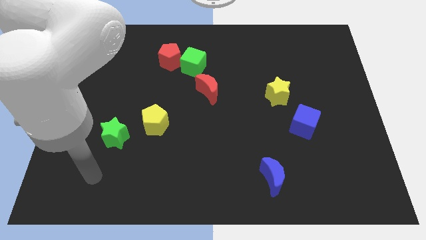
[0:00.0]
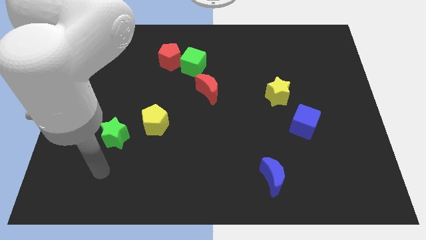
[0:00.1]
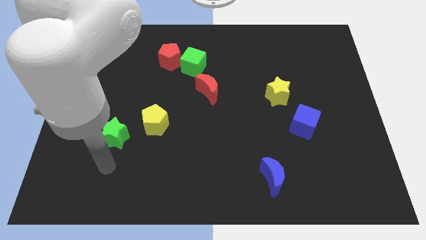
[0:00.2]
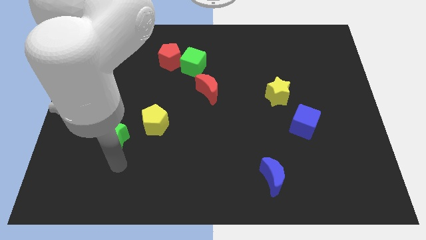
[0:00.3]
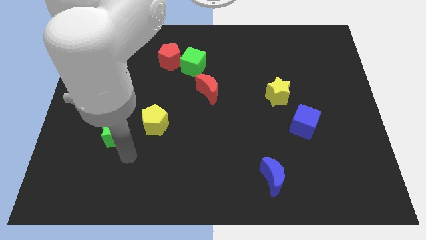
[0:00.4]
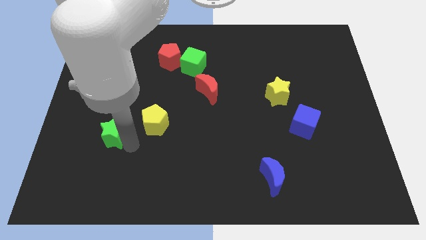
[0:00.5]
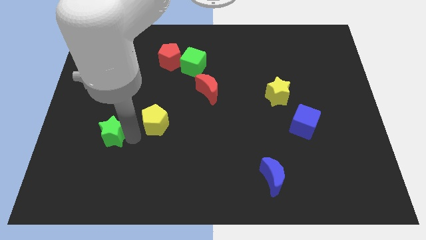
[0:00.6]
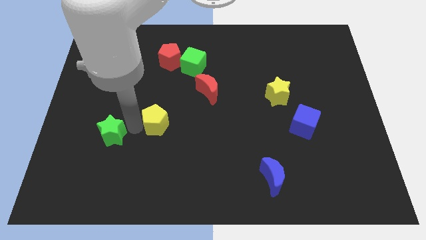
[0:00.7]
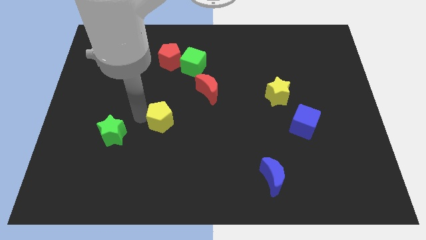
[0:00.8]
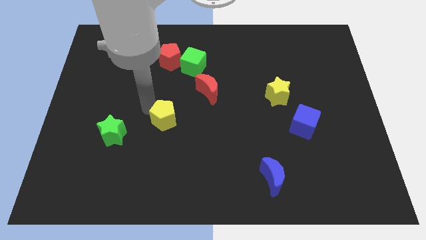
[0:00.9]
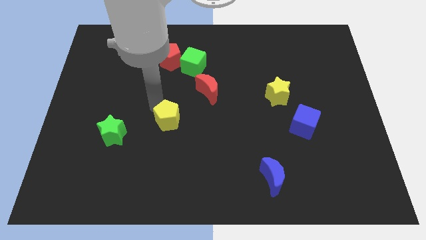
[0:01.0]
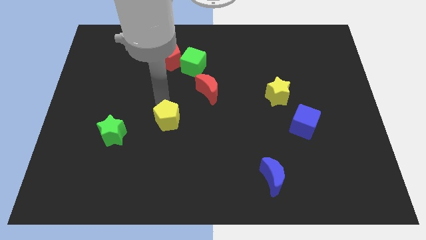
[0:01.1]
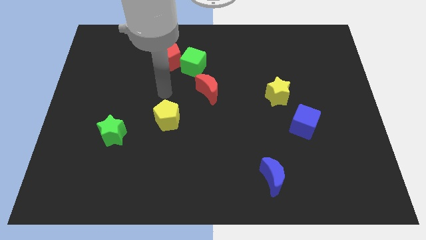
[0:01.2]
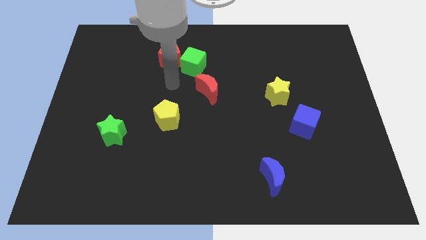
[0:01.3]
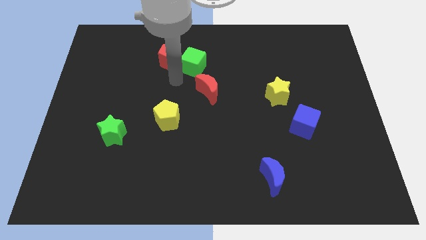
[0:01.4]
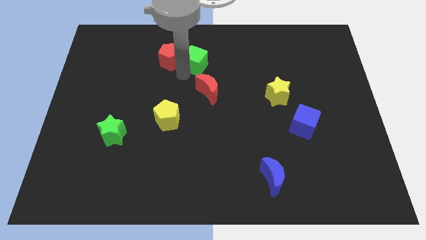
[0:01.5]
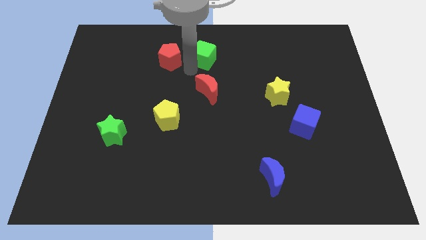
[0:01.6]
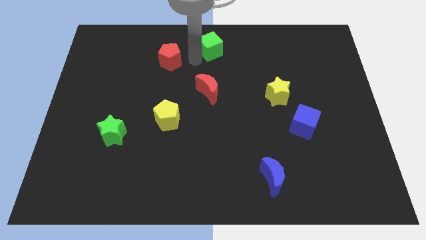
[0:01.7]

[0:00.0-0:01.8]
move the red pentagon away from the green cube

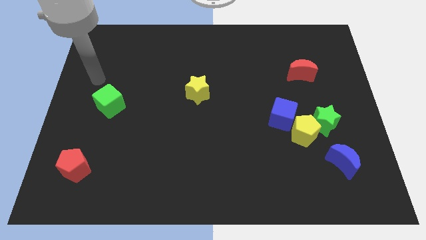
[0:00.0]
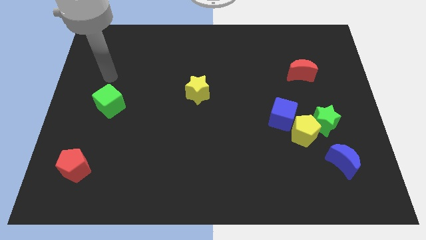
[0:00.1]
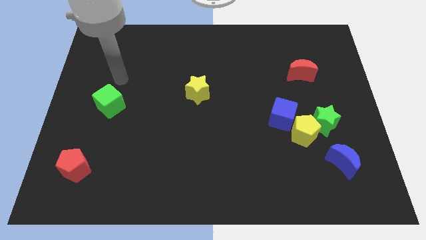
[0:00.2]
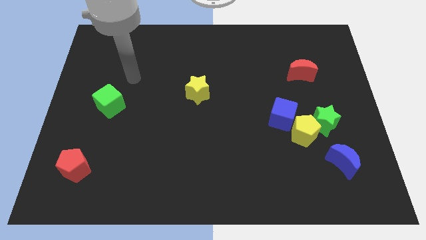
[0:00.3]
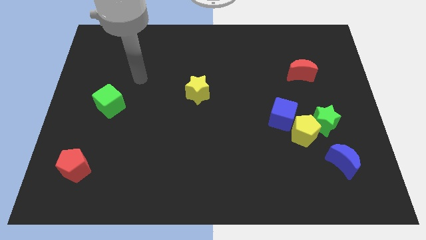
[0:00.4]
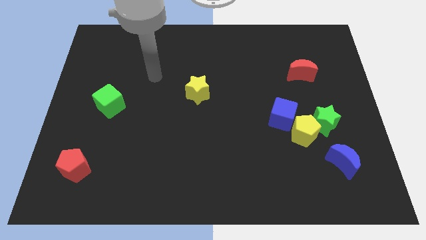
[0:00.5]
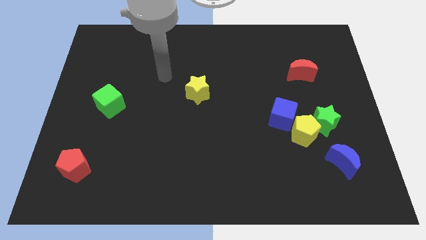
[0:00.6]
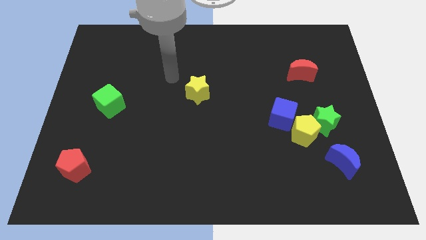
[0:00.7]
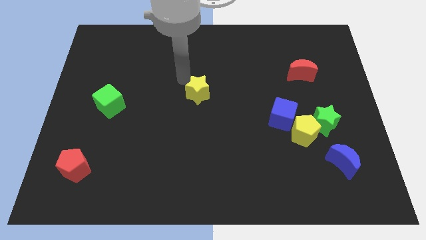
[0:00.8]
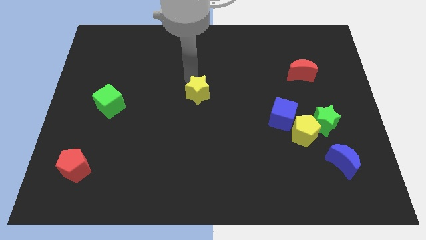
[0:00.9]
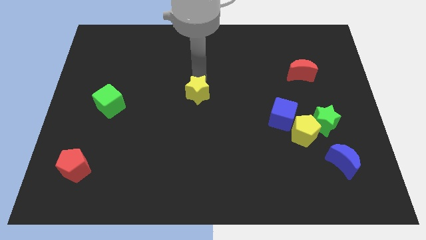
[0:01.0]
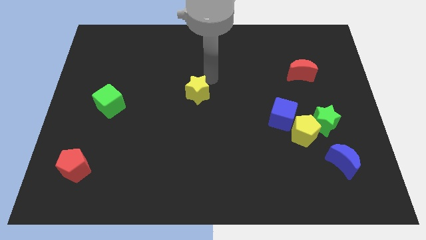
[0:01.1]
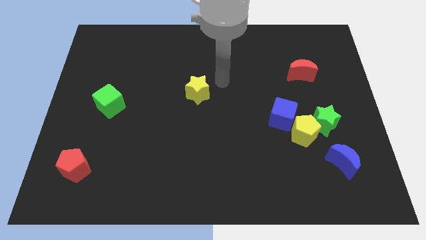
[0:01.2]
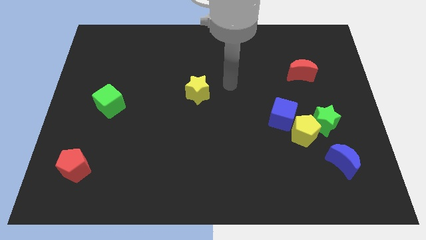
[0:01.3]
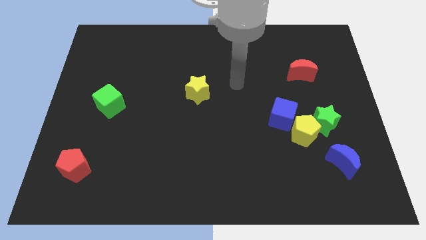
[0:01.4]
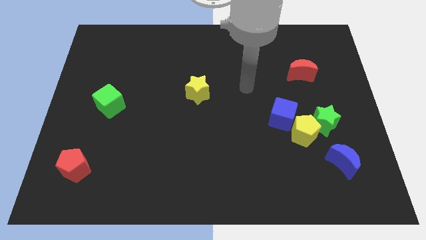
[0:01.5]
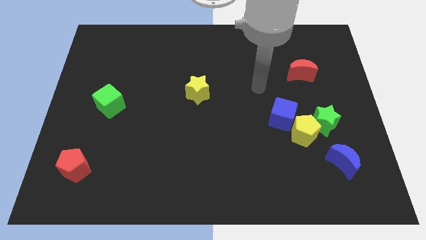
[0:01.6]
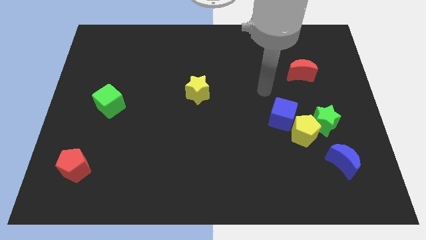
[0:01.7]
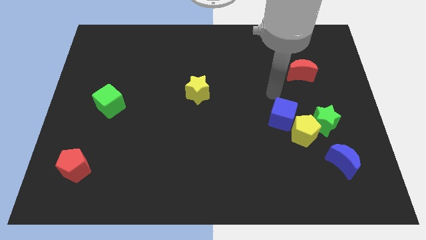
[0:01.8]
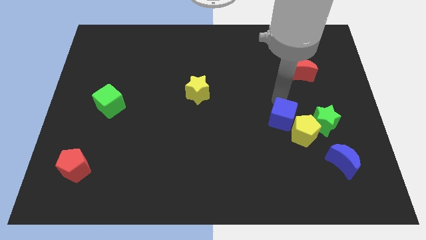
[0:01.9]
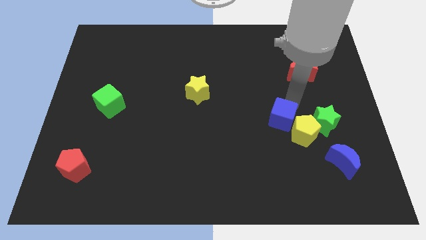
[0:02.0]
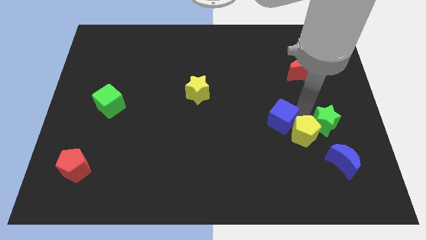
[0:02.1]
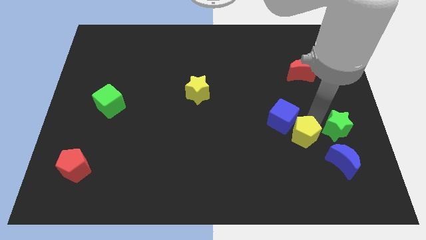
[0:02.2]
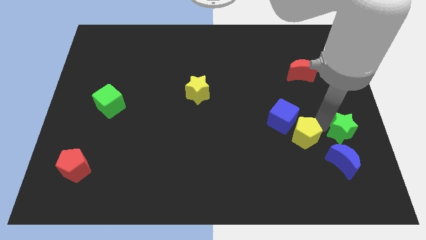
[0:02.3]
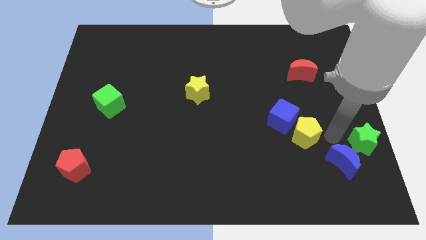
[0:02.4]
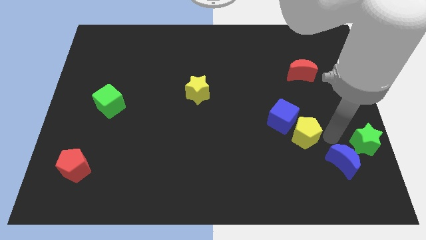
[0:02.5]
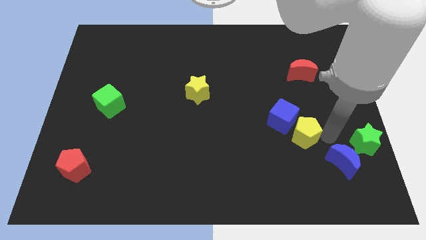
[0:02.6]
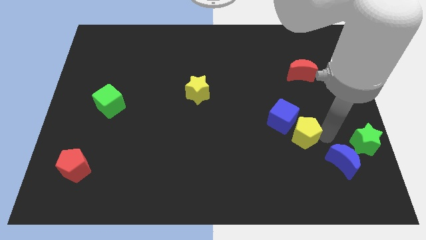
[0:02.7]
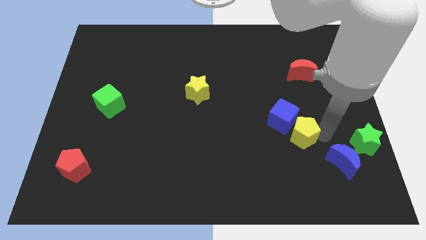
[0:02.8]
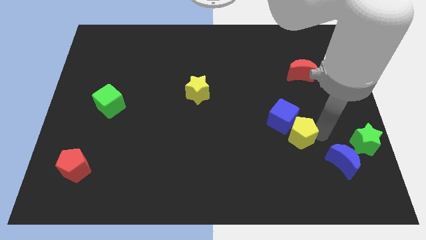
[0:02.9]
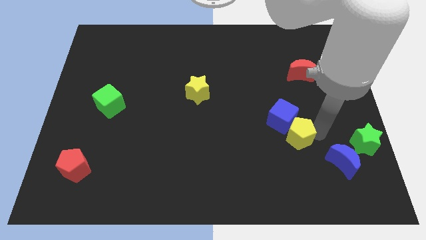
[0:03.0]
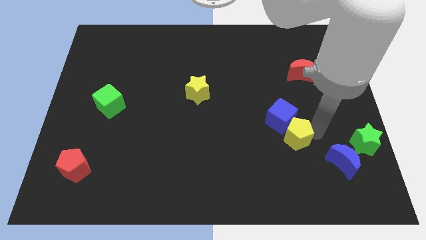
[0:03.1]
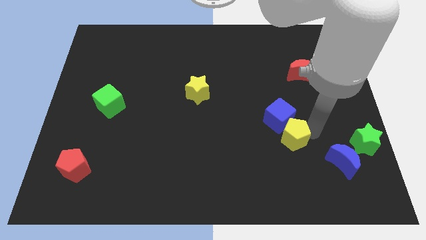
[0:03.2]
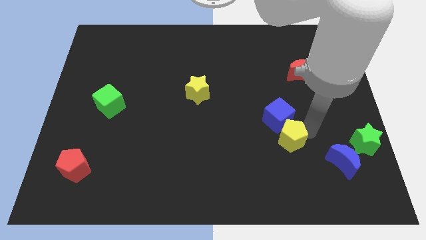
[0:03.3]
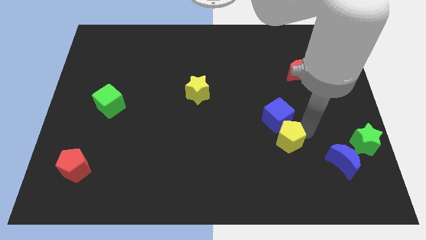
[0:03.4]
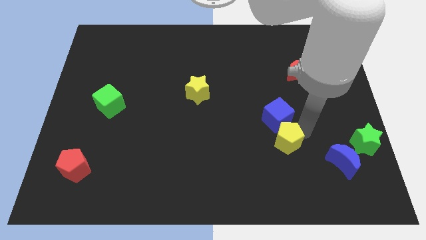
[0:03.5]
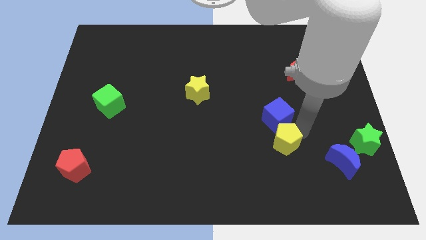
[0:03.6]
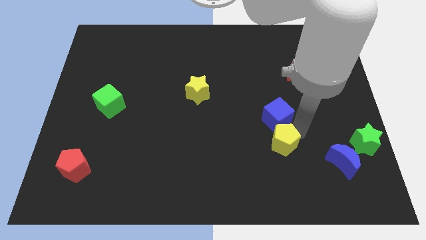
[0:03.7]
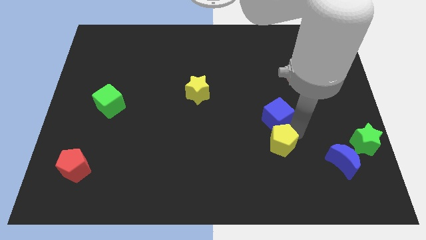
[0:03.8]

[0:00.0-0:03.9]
pull the yellow pentagon apart from the clump

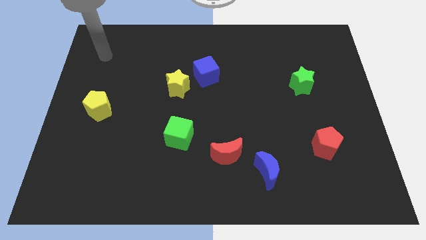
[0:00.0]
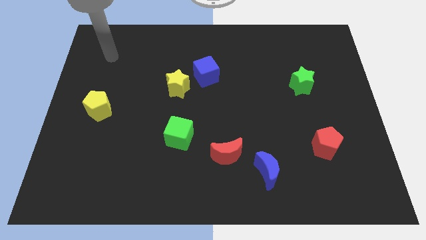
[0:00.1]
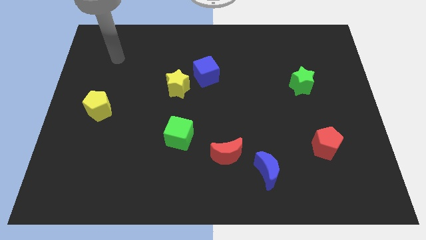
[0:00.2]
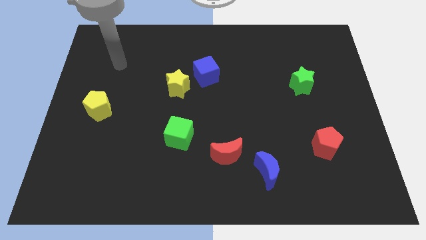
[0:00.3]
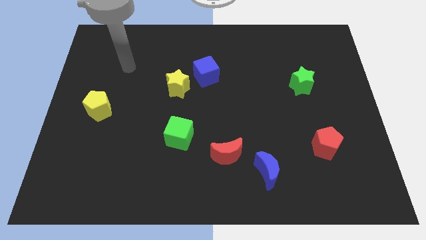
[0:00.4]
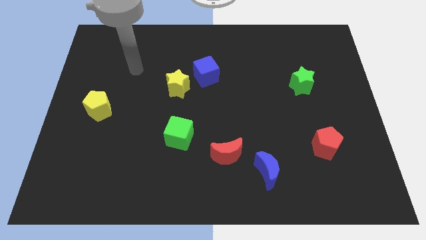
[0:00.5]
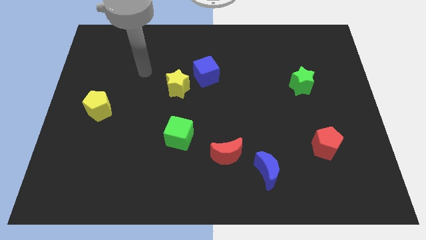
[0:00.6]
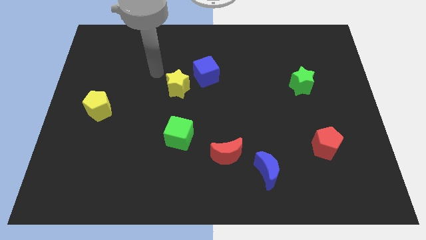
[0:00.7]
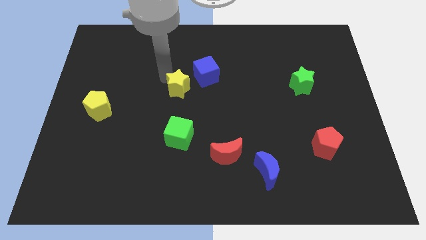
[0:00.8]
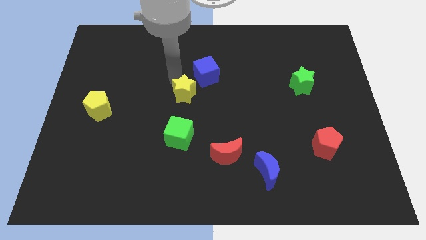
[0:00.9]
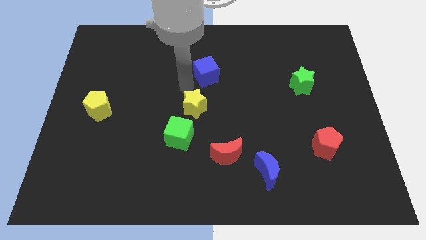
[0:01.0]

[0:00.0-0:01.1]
move the blue cube away from the yellow star

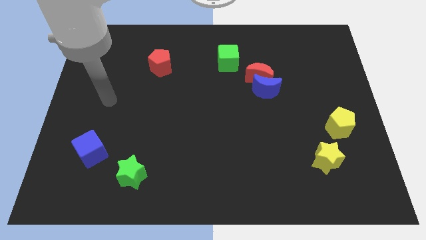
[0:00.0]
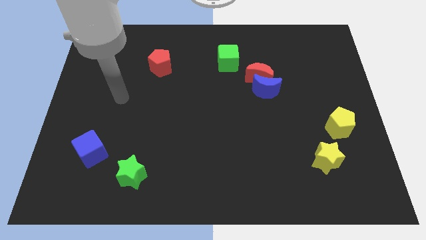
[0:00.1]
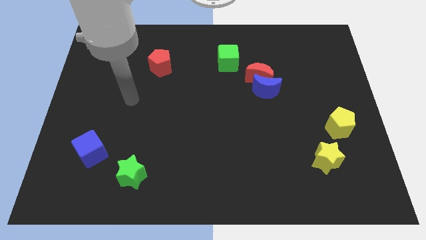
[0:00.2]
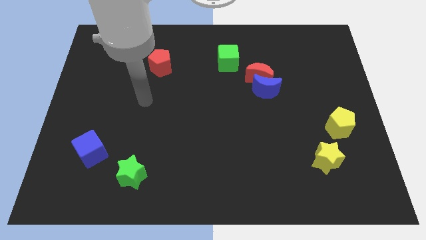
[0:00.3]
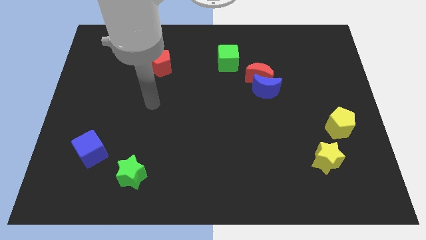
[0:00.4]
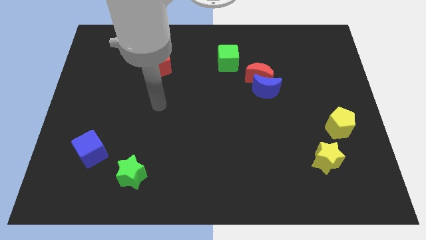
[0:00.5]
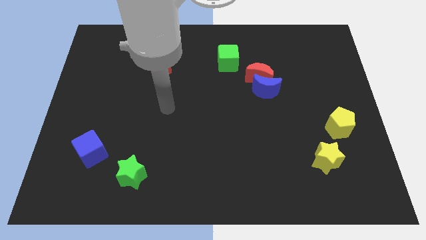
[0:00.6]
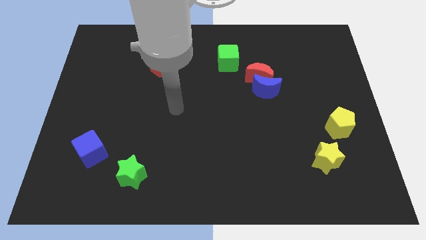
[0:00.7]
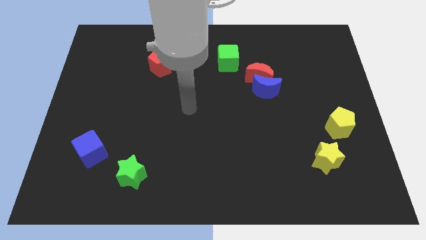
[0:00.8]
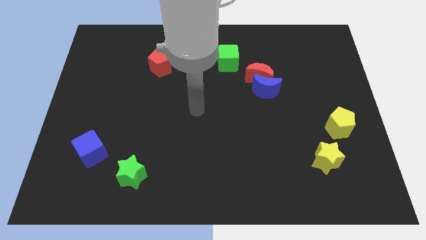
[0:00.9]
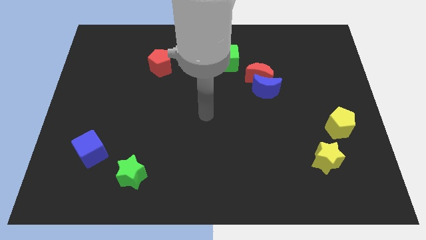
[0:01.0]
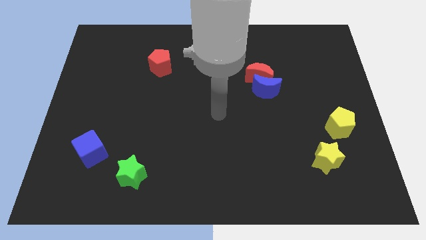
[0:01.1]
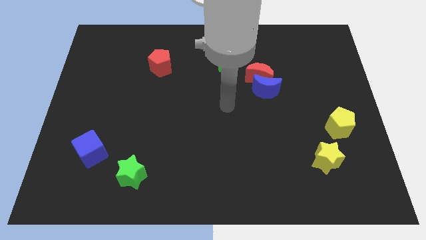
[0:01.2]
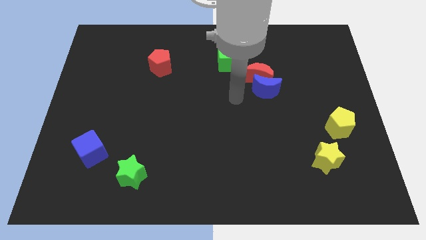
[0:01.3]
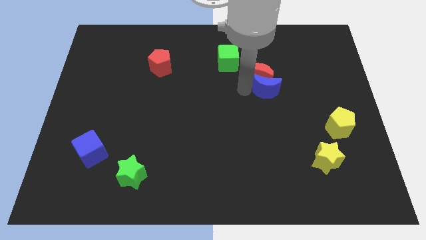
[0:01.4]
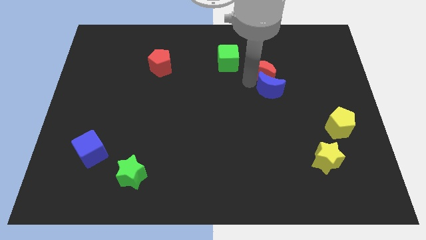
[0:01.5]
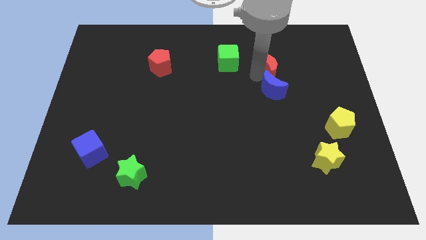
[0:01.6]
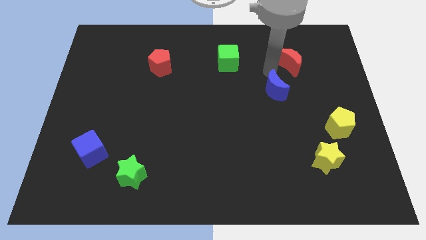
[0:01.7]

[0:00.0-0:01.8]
pull the blue moon apart from the red moon

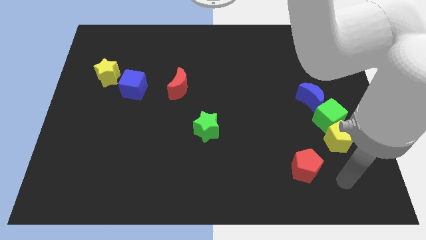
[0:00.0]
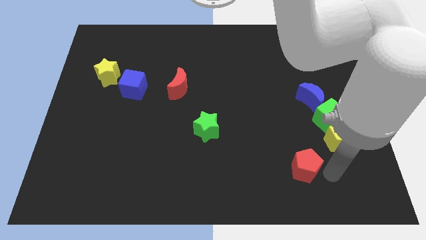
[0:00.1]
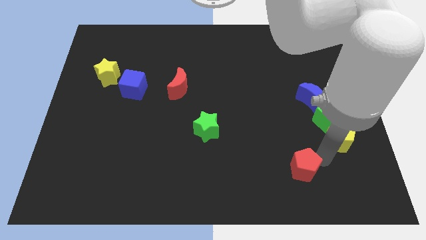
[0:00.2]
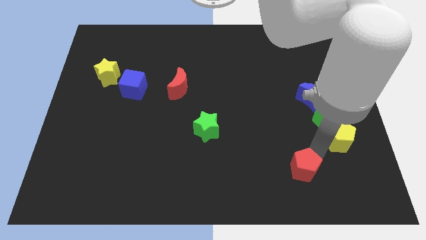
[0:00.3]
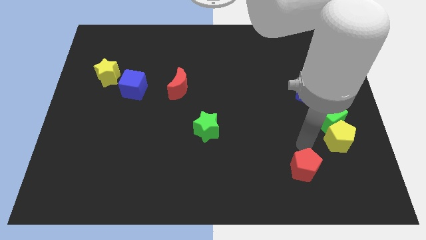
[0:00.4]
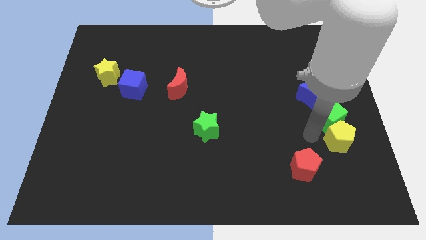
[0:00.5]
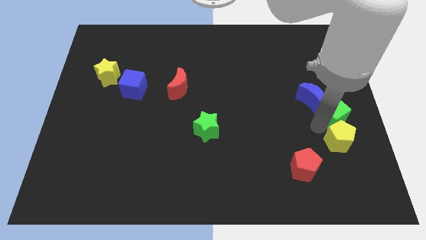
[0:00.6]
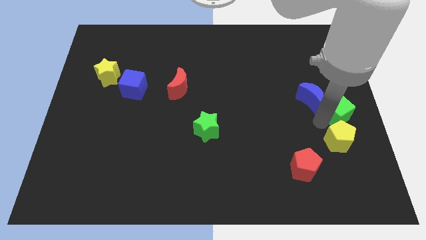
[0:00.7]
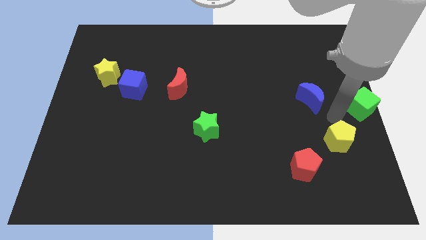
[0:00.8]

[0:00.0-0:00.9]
move the yellow pentagon away from the green cube

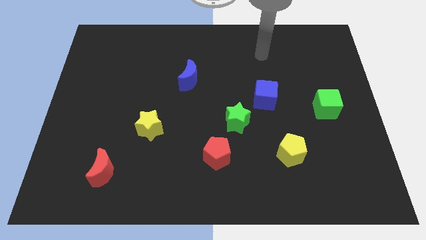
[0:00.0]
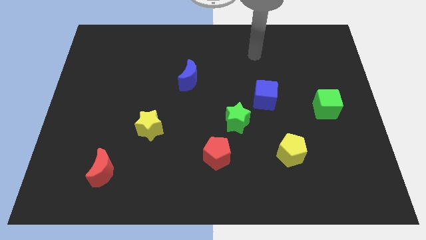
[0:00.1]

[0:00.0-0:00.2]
pull the blue cube apart from the green star
